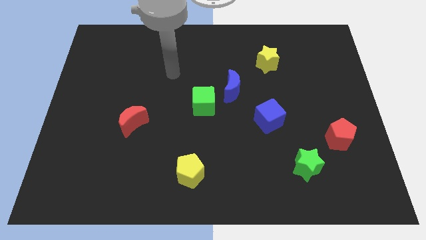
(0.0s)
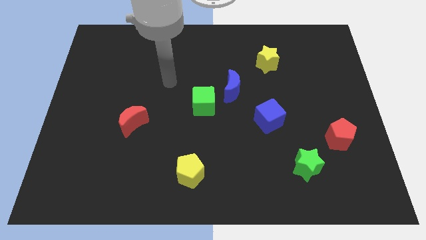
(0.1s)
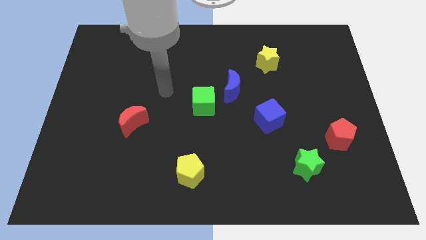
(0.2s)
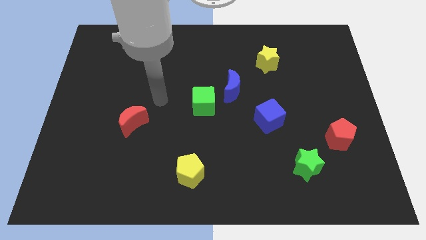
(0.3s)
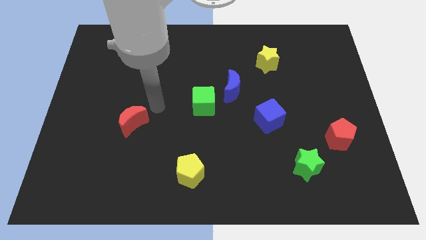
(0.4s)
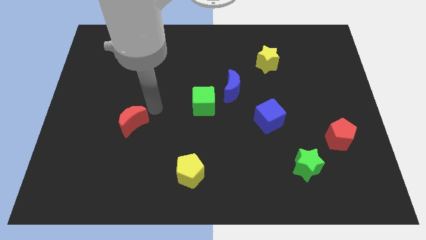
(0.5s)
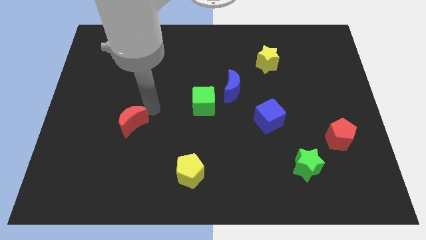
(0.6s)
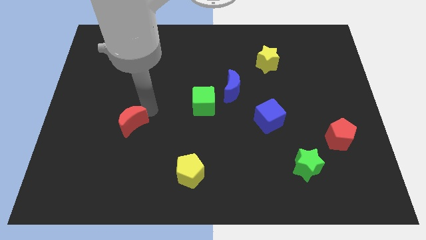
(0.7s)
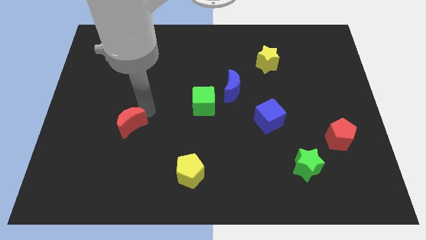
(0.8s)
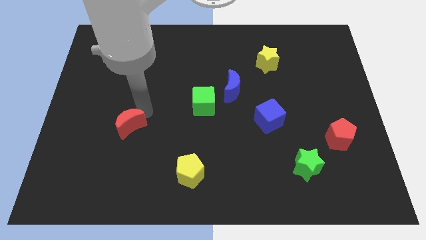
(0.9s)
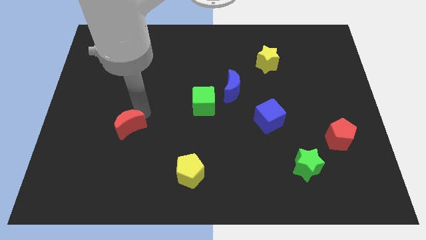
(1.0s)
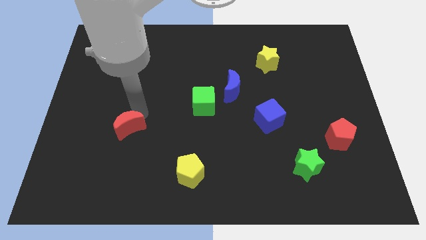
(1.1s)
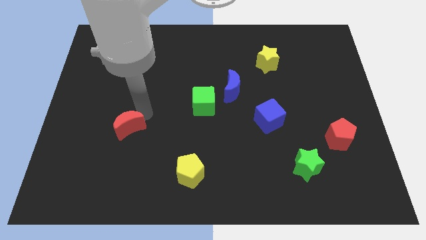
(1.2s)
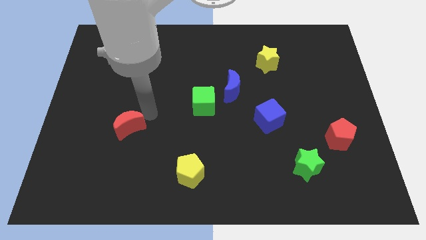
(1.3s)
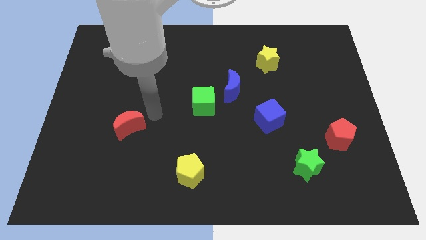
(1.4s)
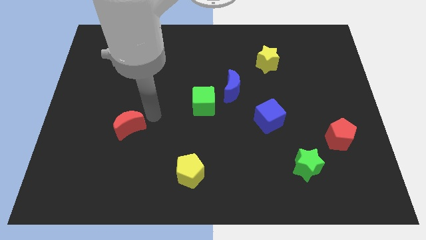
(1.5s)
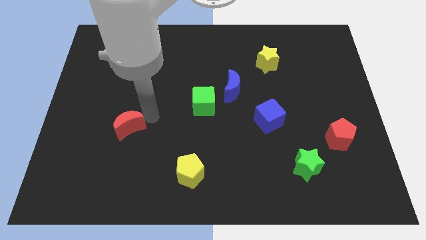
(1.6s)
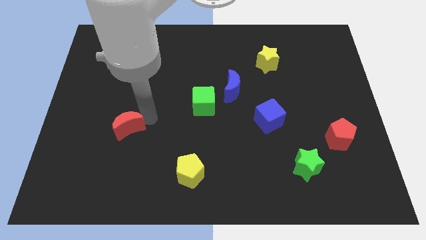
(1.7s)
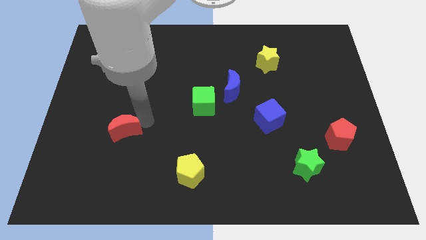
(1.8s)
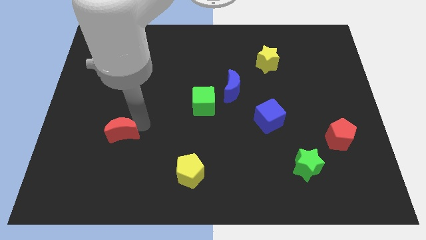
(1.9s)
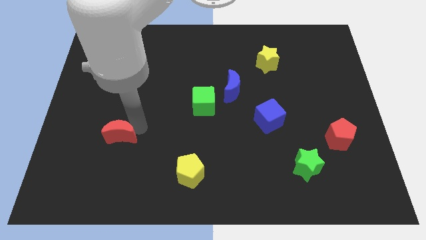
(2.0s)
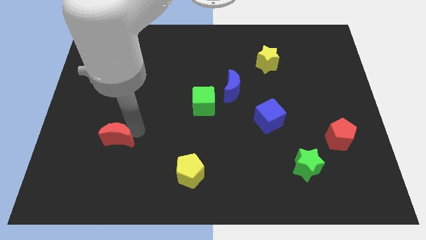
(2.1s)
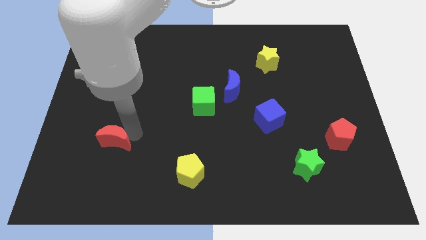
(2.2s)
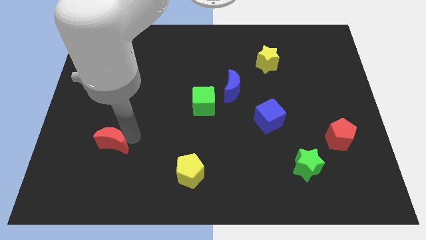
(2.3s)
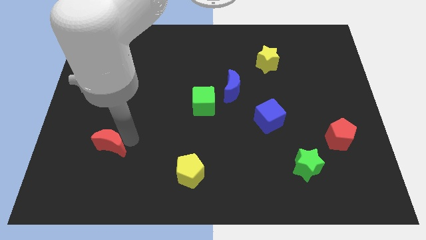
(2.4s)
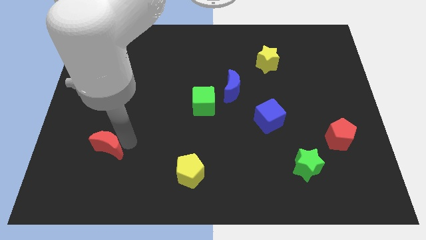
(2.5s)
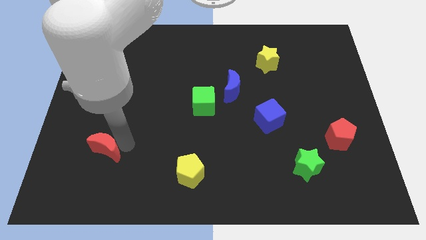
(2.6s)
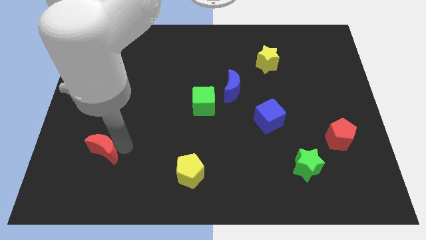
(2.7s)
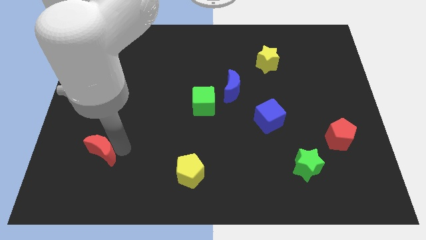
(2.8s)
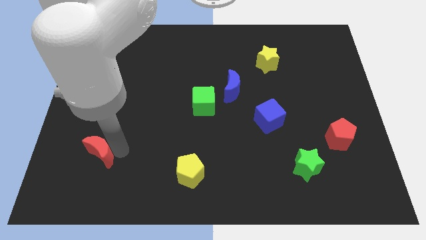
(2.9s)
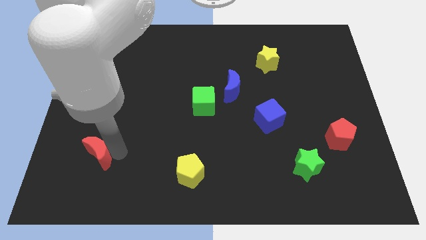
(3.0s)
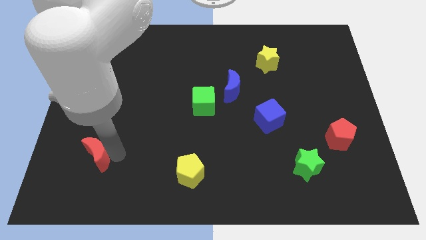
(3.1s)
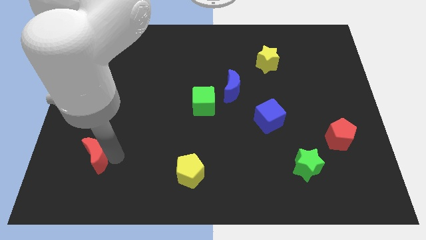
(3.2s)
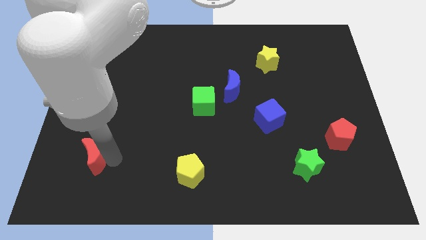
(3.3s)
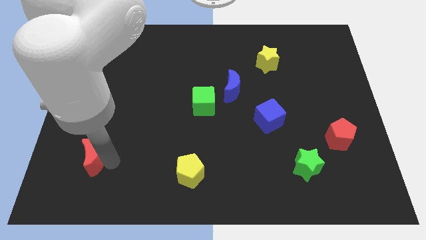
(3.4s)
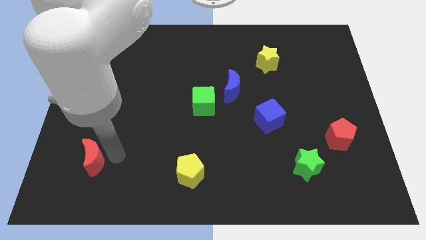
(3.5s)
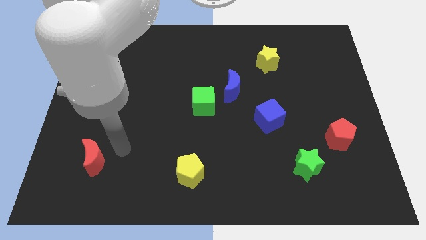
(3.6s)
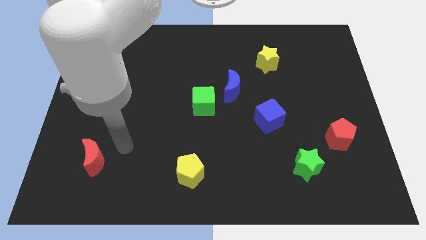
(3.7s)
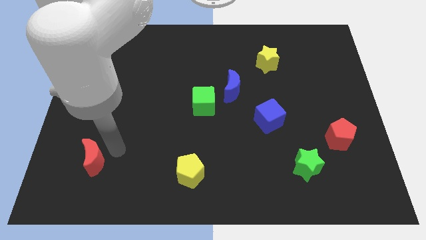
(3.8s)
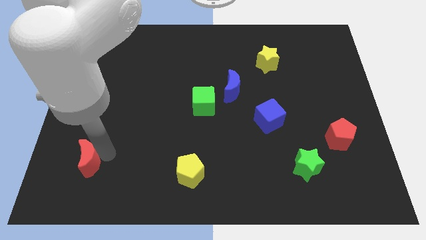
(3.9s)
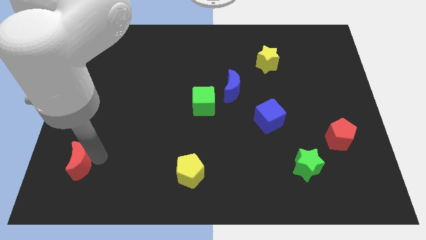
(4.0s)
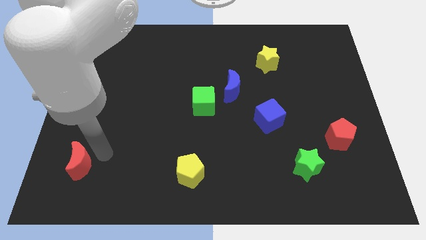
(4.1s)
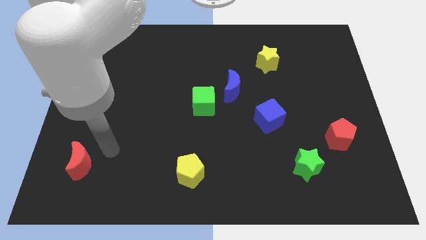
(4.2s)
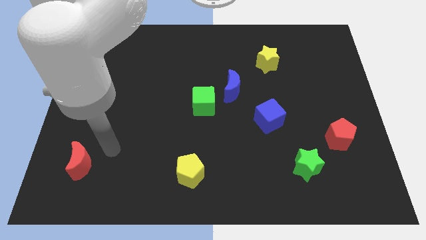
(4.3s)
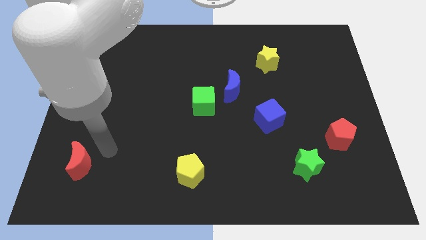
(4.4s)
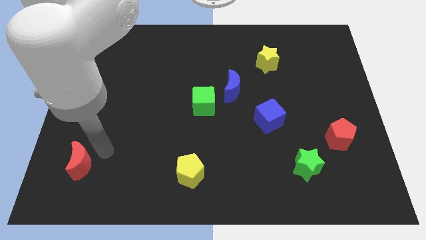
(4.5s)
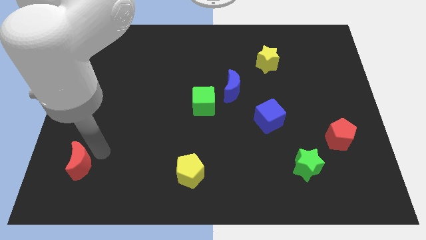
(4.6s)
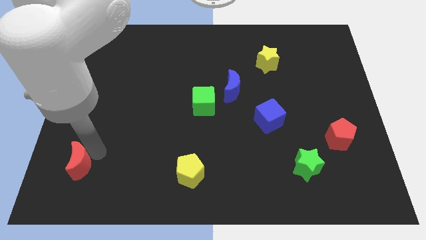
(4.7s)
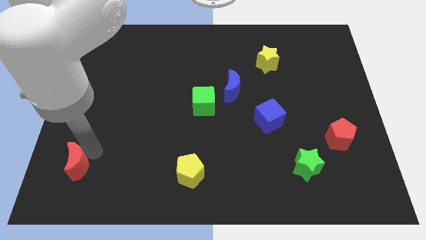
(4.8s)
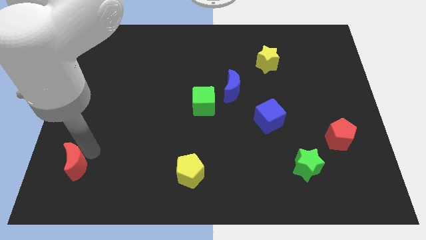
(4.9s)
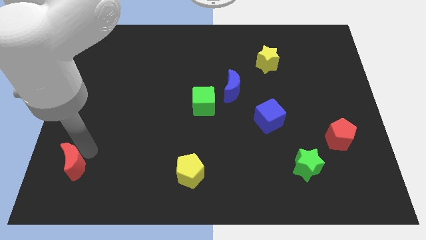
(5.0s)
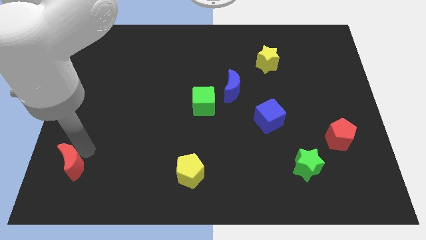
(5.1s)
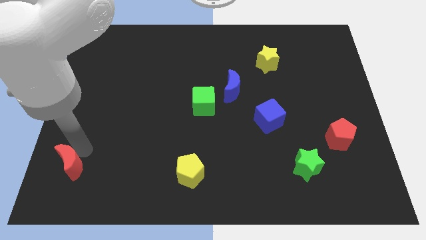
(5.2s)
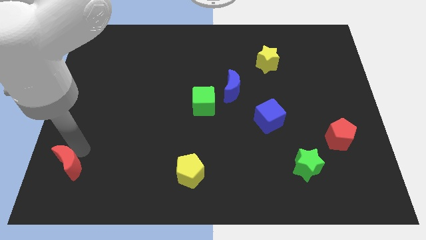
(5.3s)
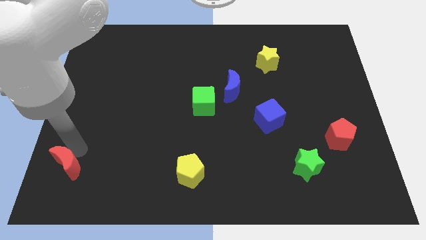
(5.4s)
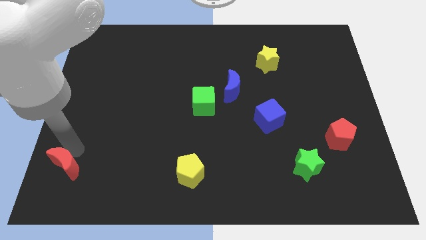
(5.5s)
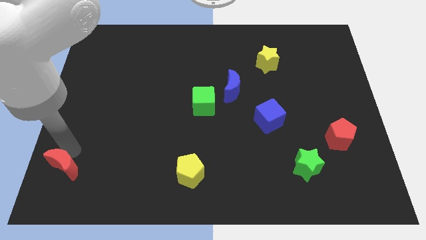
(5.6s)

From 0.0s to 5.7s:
put the red moon to the lower left corner
